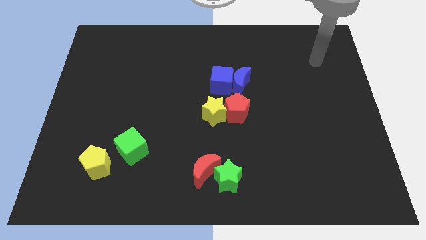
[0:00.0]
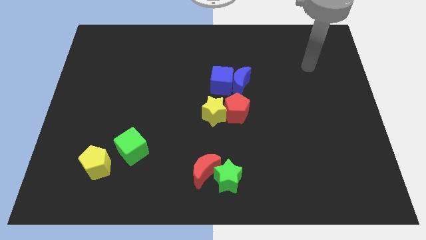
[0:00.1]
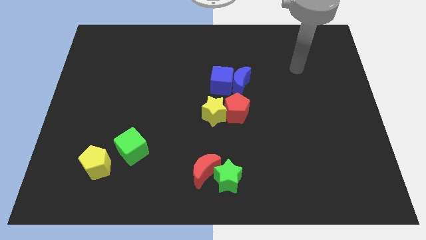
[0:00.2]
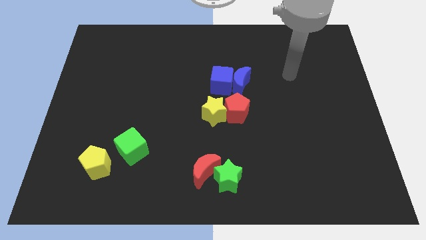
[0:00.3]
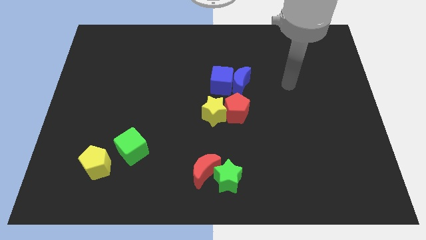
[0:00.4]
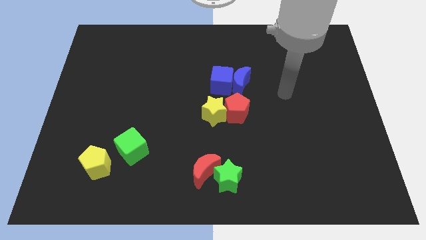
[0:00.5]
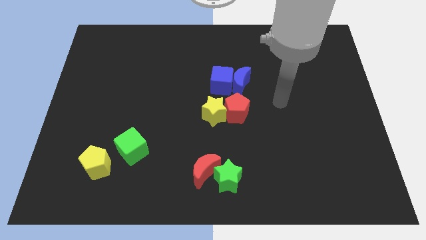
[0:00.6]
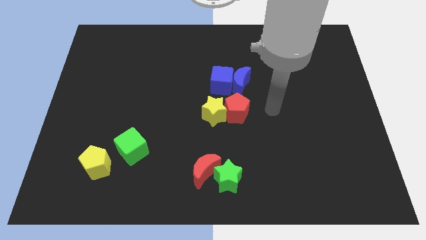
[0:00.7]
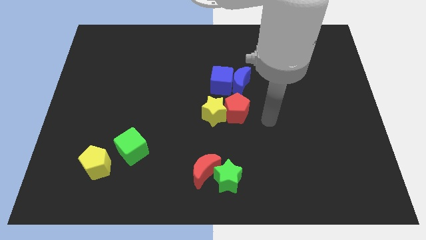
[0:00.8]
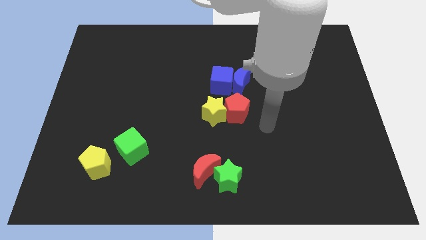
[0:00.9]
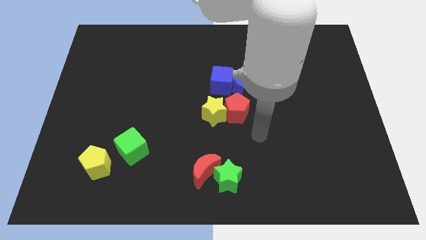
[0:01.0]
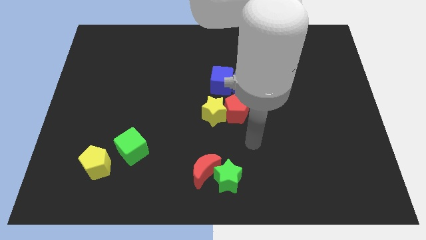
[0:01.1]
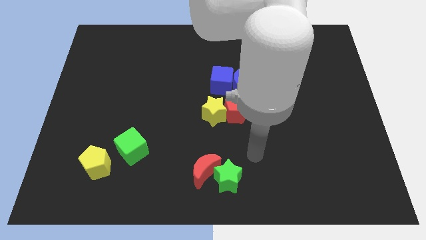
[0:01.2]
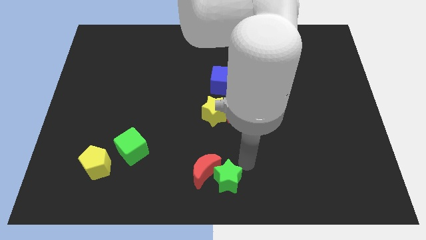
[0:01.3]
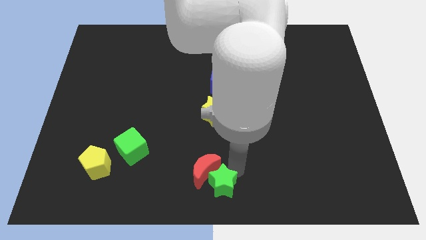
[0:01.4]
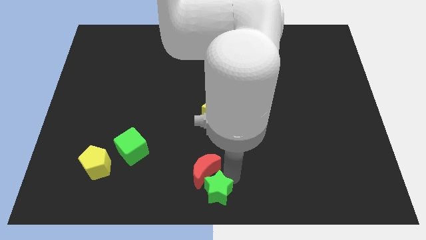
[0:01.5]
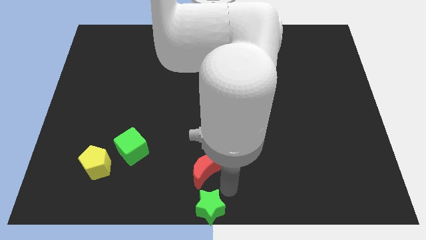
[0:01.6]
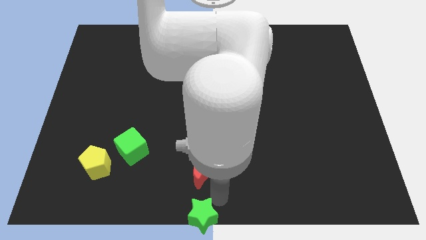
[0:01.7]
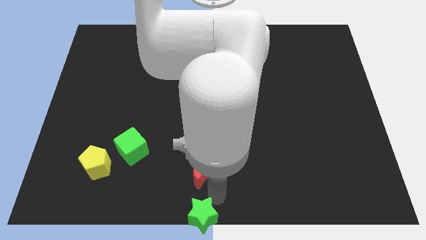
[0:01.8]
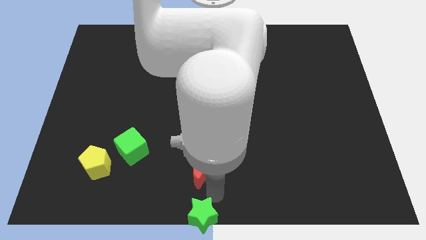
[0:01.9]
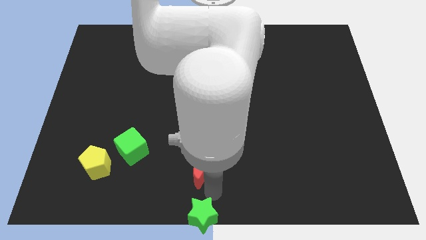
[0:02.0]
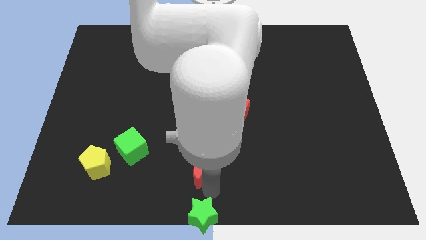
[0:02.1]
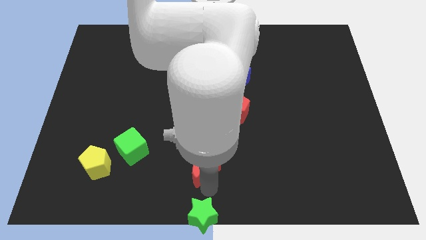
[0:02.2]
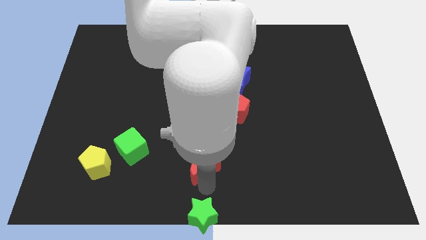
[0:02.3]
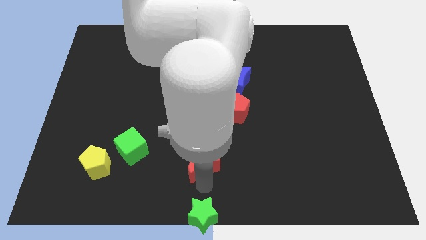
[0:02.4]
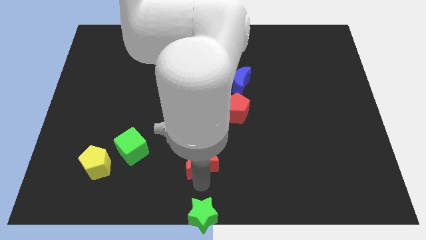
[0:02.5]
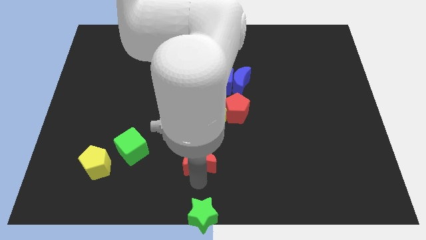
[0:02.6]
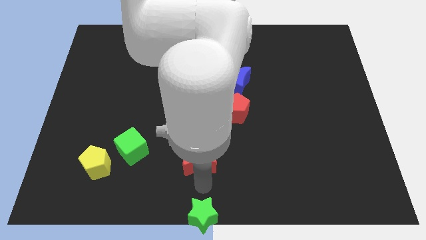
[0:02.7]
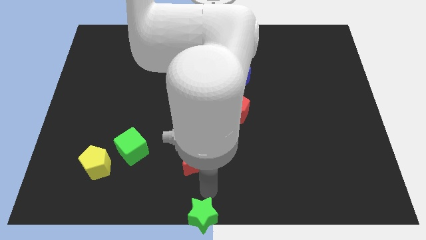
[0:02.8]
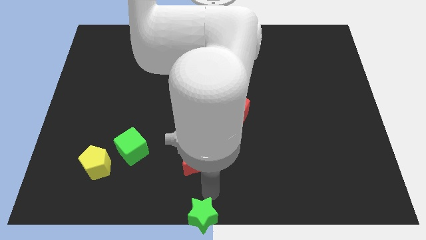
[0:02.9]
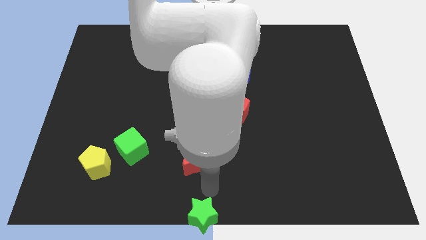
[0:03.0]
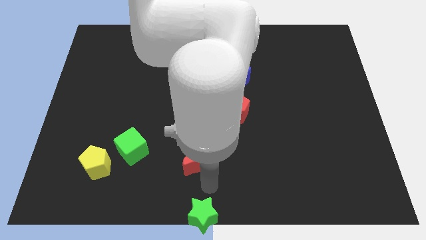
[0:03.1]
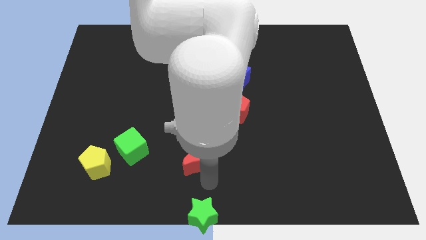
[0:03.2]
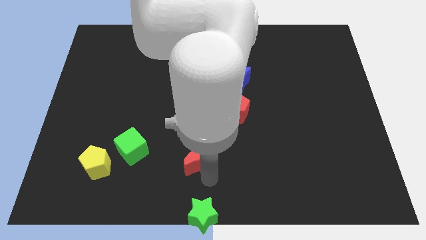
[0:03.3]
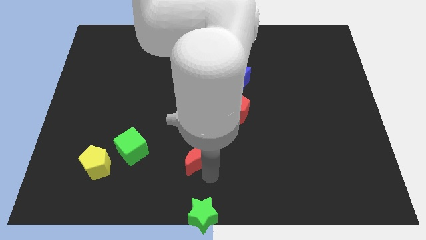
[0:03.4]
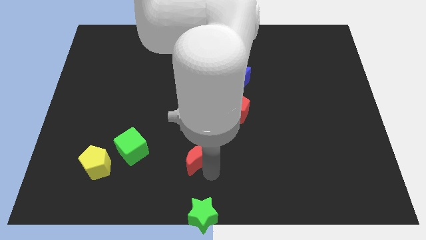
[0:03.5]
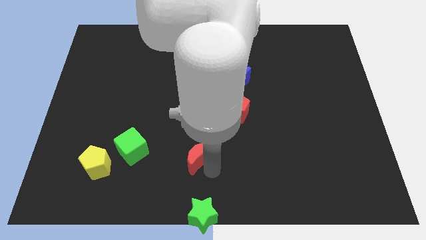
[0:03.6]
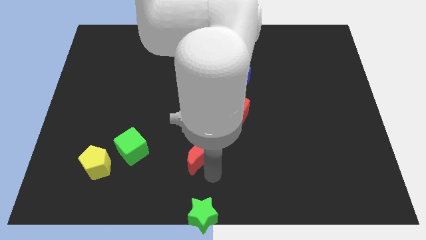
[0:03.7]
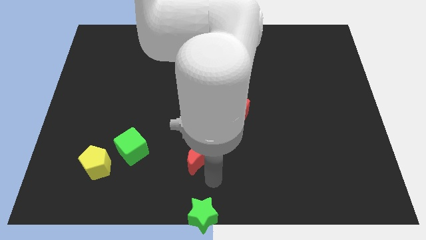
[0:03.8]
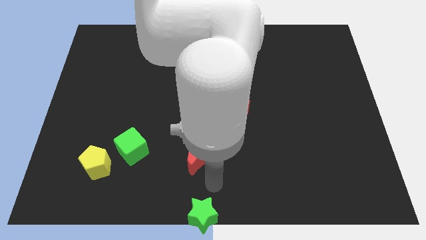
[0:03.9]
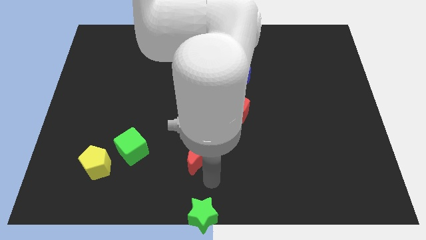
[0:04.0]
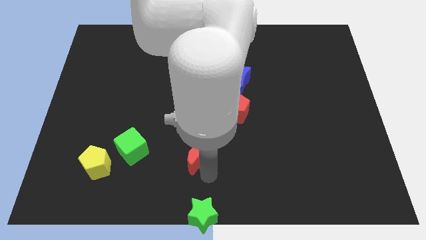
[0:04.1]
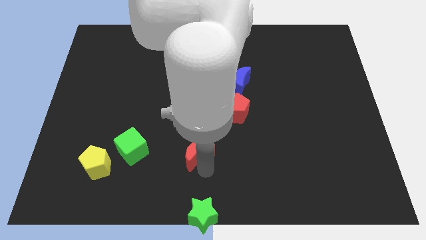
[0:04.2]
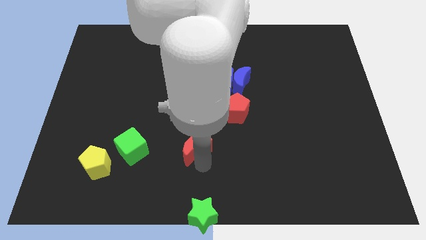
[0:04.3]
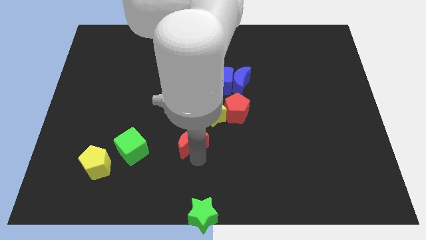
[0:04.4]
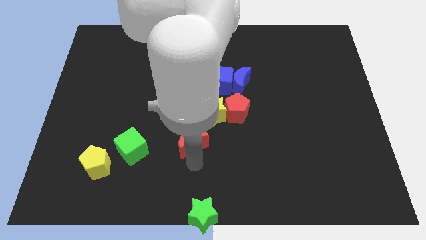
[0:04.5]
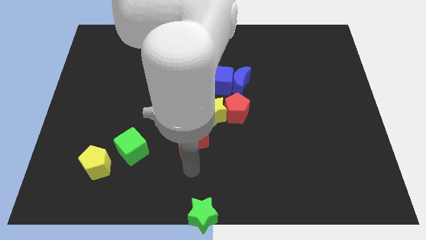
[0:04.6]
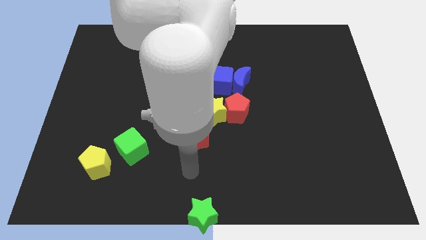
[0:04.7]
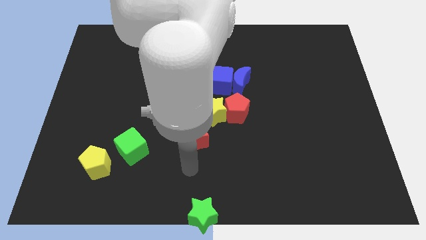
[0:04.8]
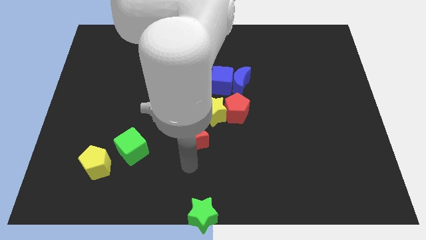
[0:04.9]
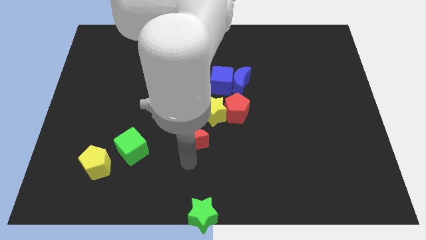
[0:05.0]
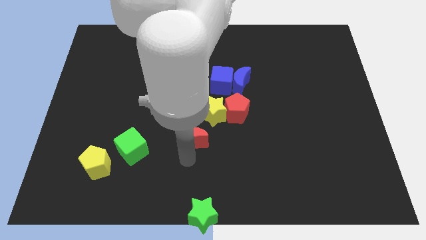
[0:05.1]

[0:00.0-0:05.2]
push the red moon to the middle of the board
